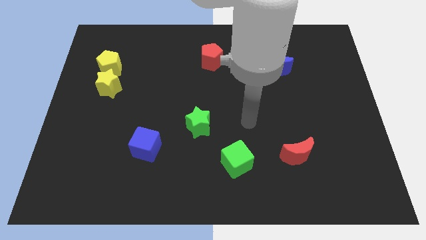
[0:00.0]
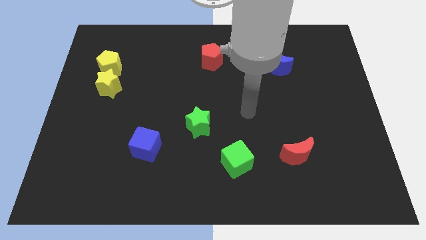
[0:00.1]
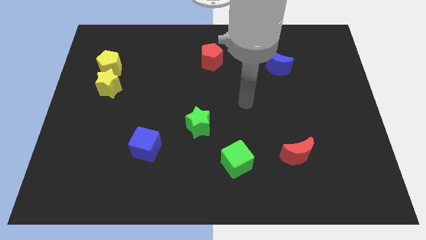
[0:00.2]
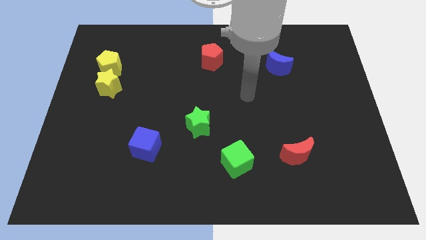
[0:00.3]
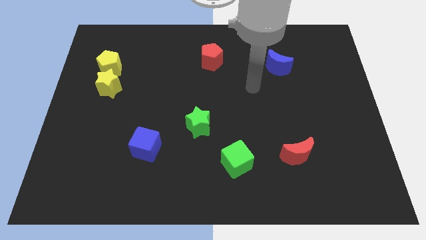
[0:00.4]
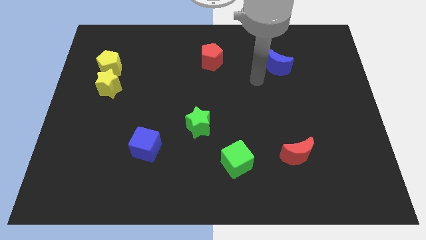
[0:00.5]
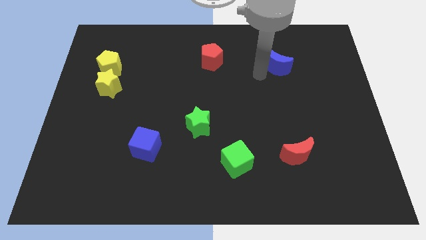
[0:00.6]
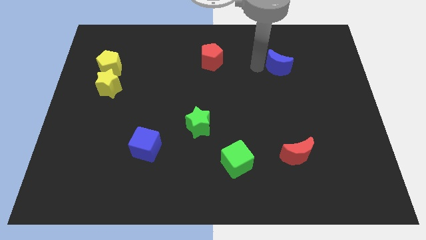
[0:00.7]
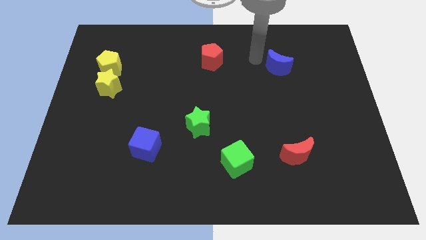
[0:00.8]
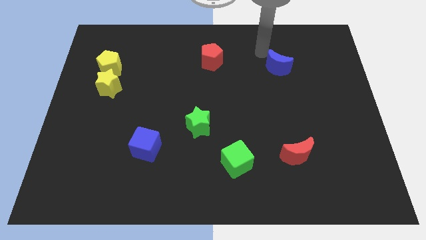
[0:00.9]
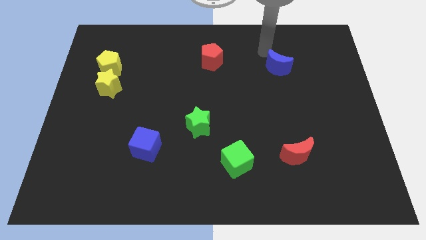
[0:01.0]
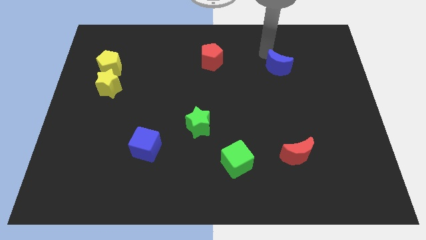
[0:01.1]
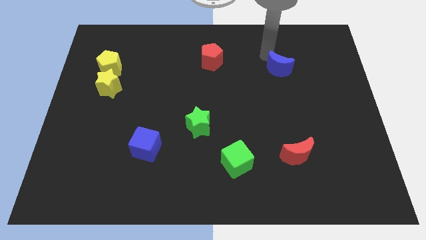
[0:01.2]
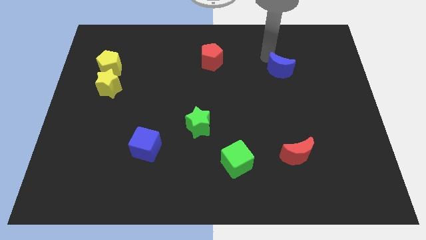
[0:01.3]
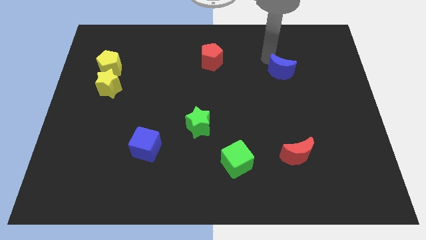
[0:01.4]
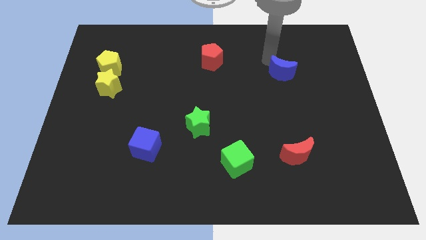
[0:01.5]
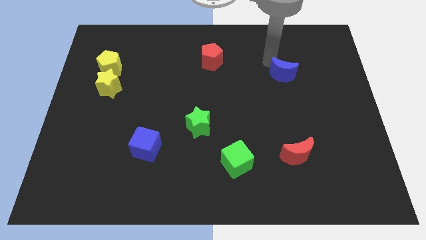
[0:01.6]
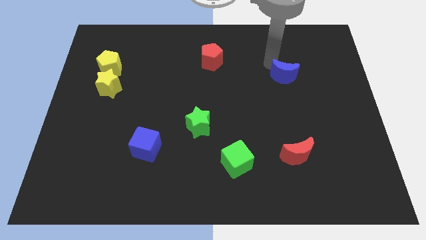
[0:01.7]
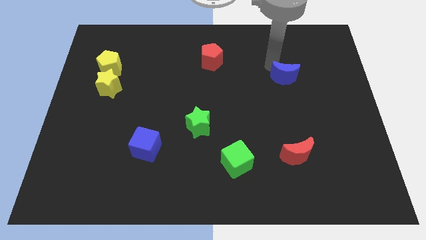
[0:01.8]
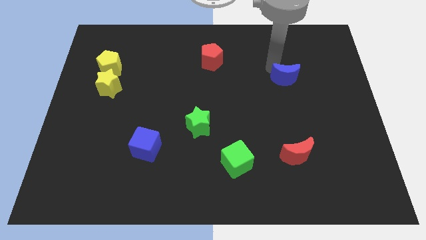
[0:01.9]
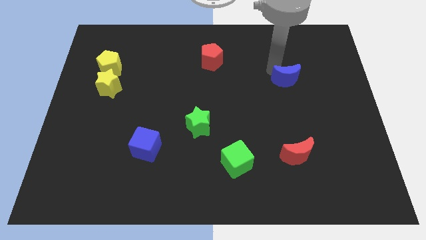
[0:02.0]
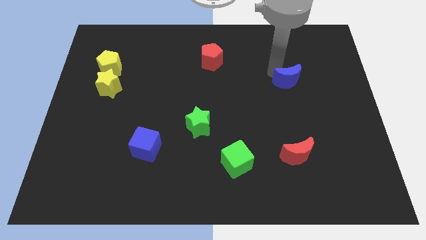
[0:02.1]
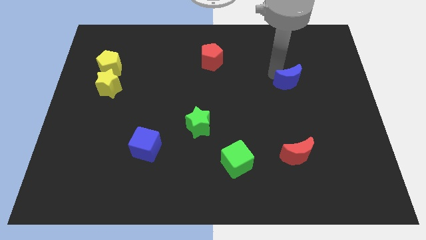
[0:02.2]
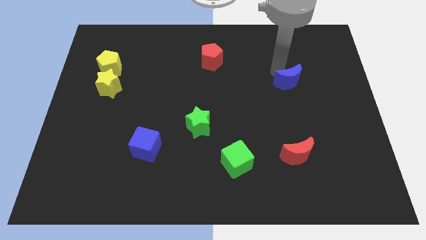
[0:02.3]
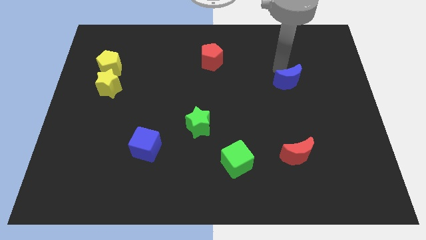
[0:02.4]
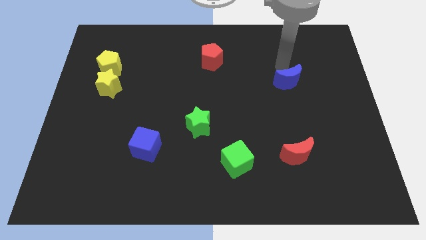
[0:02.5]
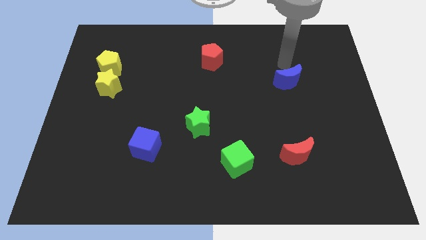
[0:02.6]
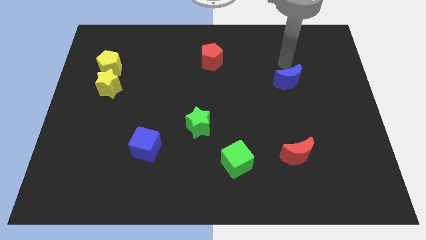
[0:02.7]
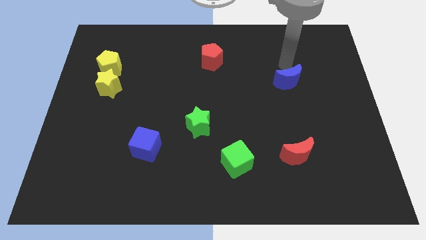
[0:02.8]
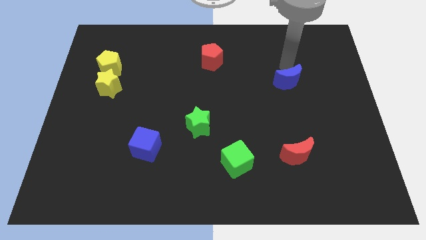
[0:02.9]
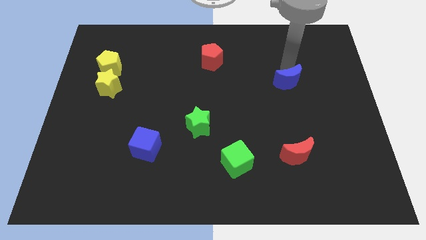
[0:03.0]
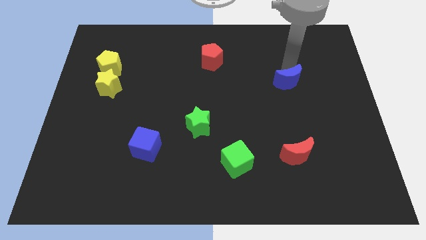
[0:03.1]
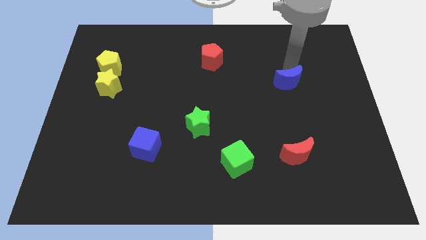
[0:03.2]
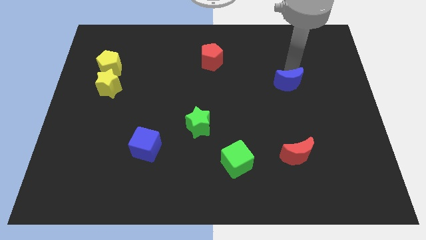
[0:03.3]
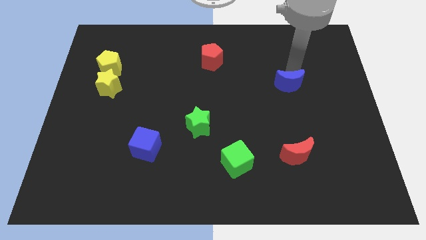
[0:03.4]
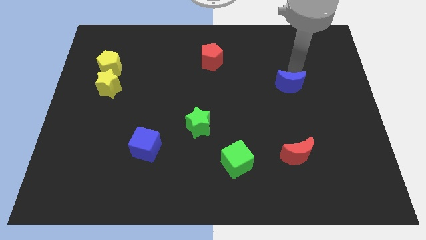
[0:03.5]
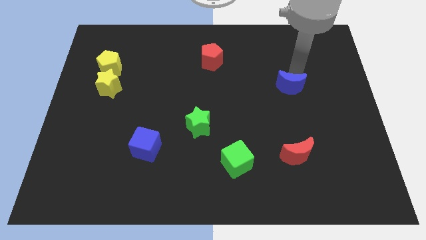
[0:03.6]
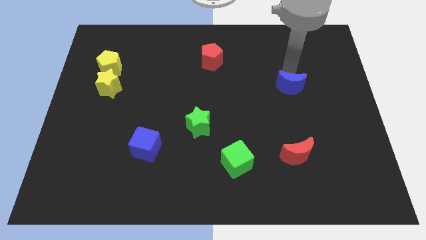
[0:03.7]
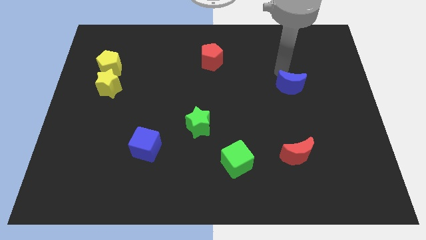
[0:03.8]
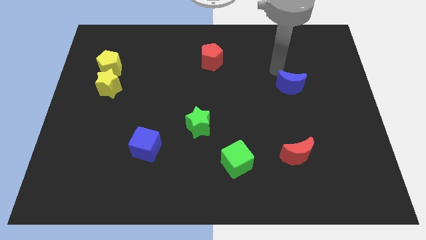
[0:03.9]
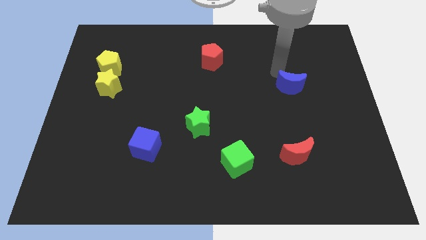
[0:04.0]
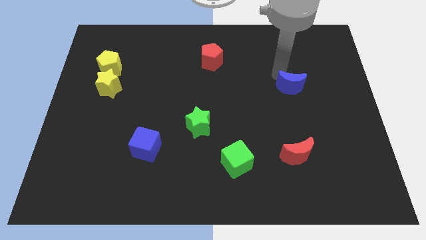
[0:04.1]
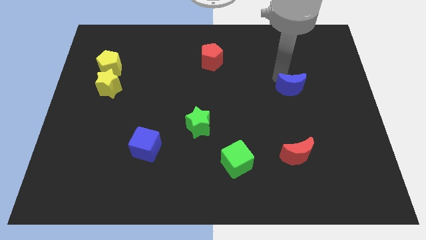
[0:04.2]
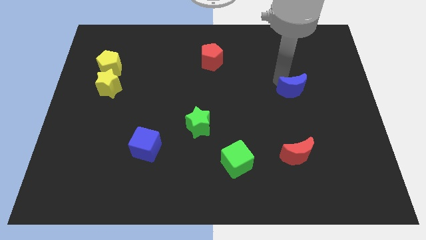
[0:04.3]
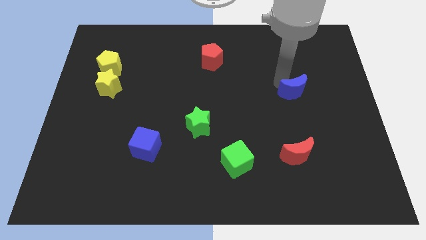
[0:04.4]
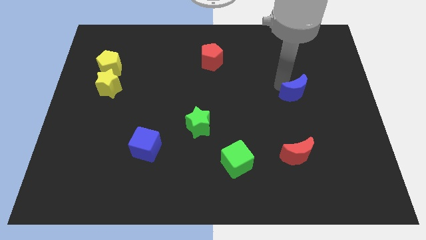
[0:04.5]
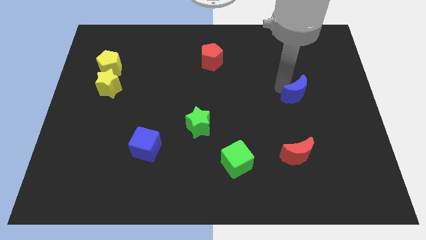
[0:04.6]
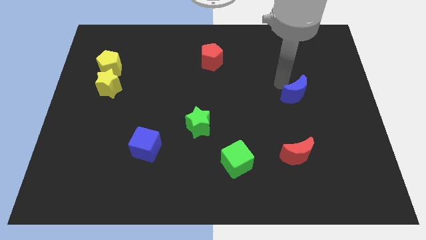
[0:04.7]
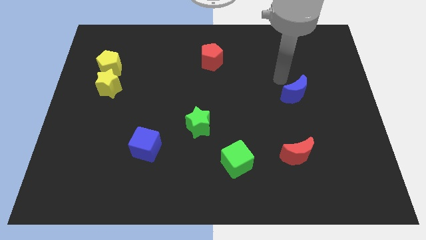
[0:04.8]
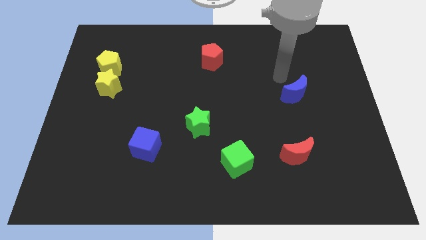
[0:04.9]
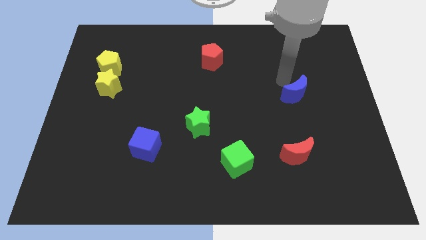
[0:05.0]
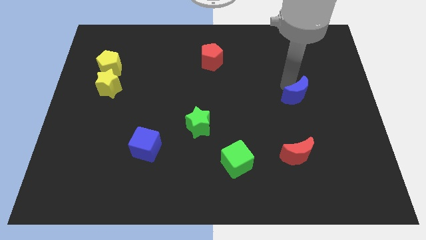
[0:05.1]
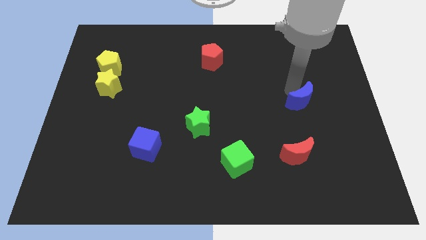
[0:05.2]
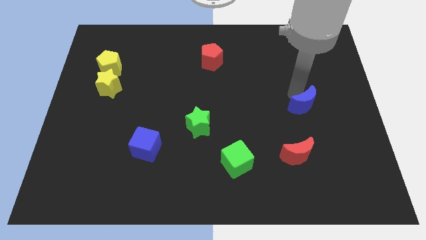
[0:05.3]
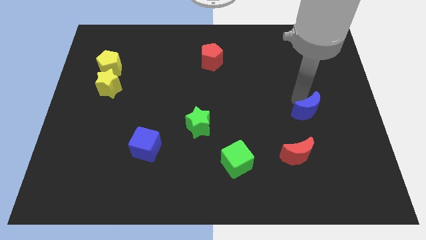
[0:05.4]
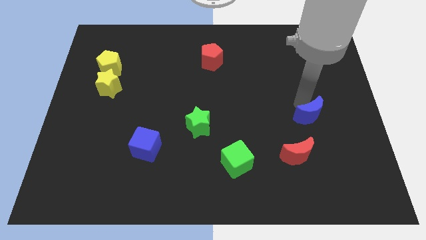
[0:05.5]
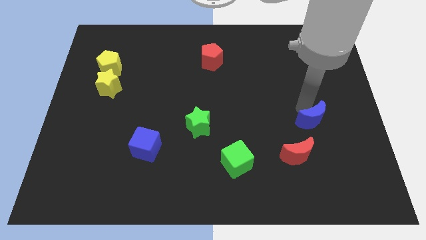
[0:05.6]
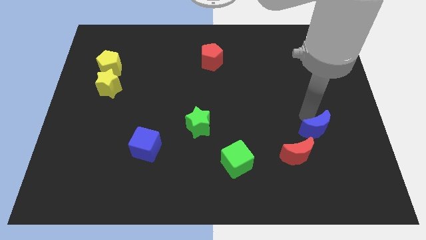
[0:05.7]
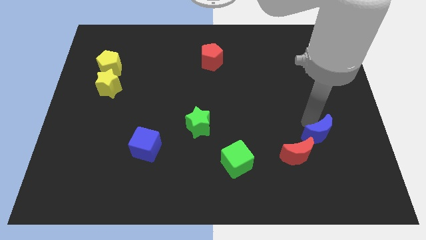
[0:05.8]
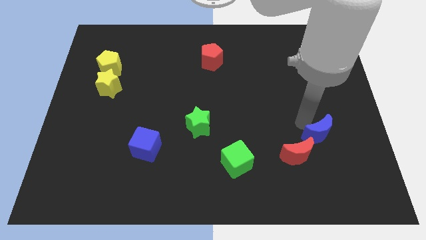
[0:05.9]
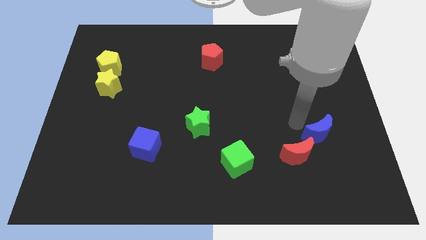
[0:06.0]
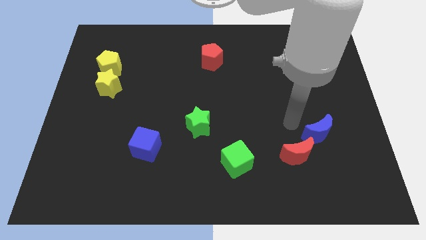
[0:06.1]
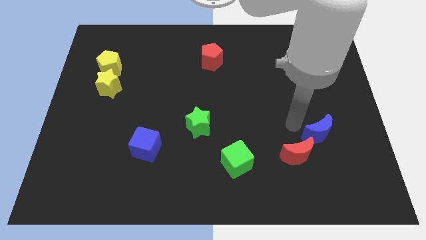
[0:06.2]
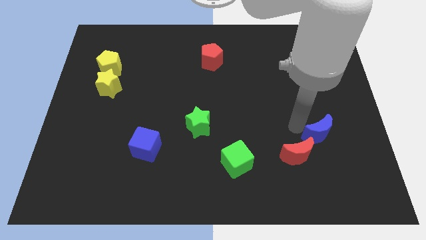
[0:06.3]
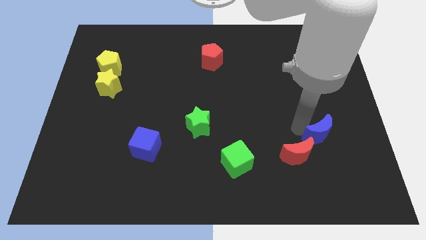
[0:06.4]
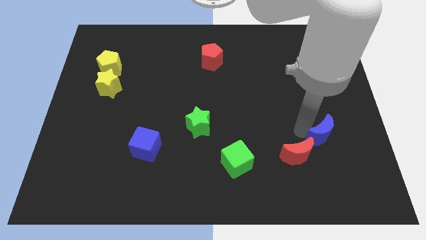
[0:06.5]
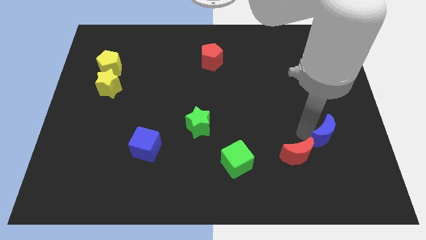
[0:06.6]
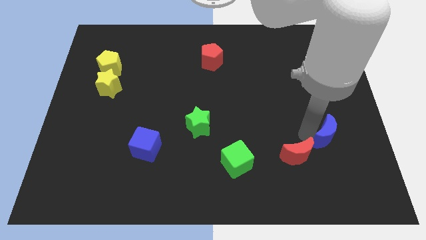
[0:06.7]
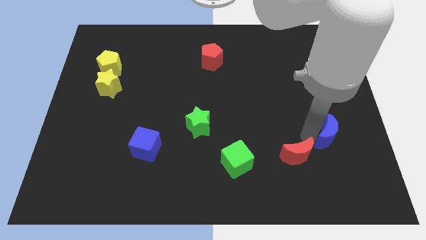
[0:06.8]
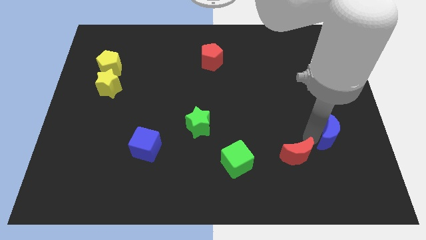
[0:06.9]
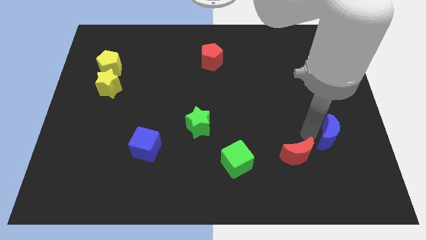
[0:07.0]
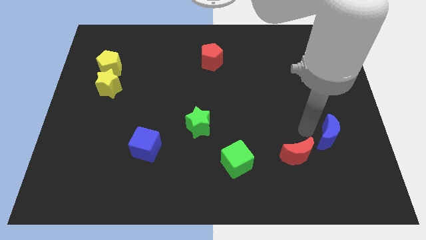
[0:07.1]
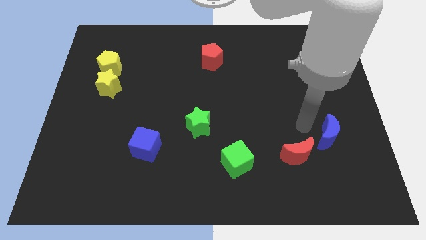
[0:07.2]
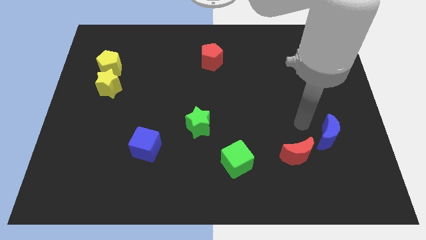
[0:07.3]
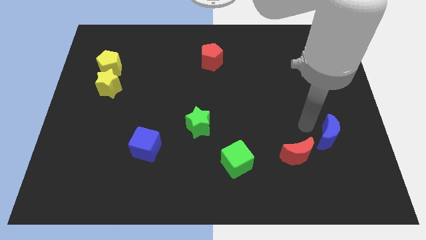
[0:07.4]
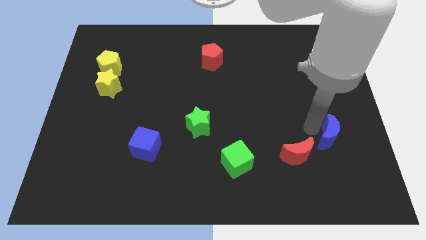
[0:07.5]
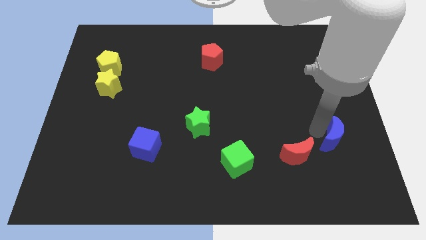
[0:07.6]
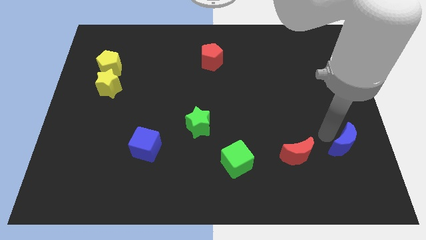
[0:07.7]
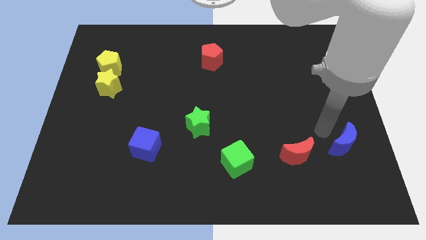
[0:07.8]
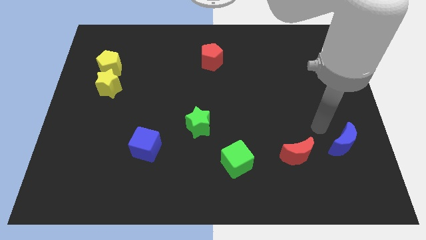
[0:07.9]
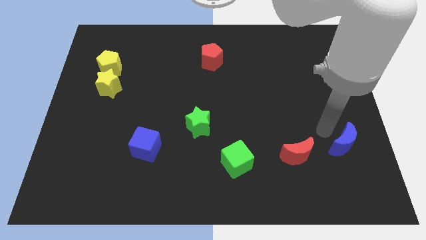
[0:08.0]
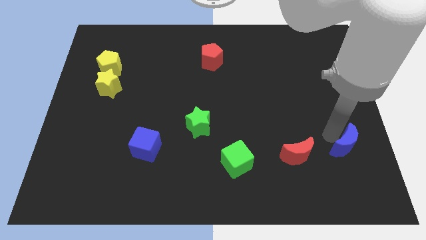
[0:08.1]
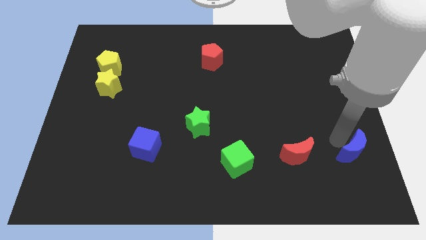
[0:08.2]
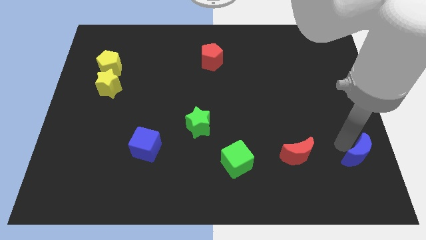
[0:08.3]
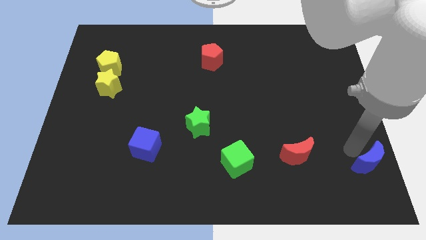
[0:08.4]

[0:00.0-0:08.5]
move the blue moon to the bottom right corner
